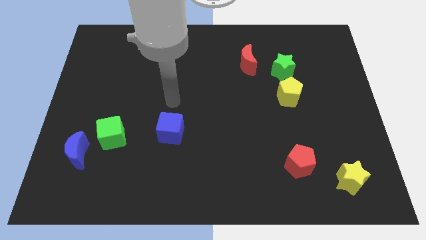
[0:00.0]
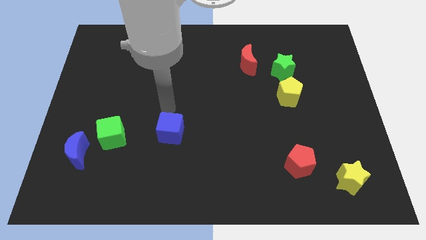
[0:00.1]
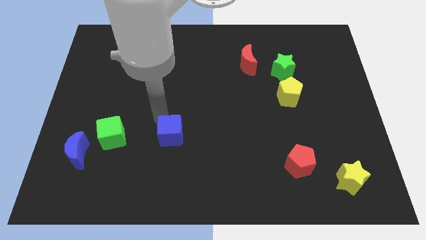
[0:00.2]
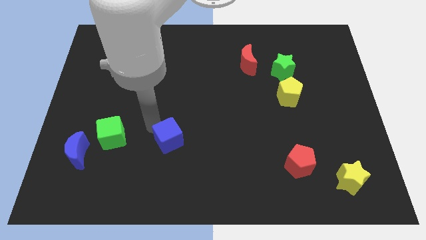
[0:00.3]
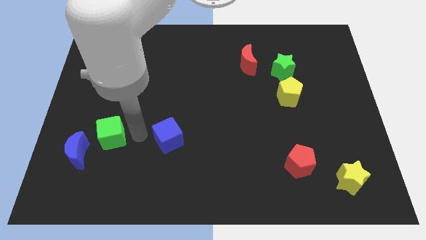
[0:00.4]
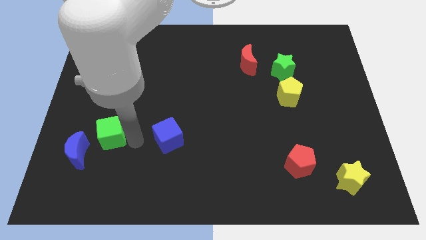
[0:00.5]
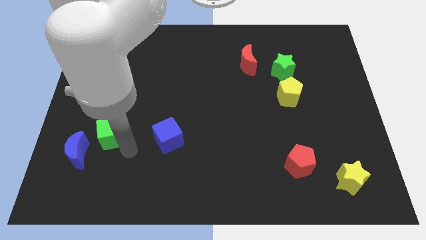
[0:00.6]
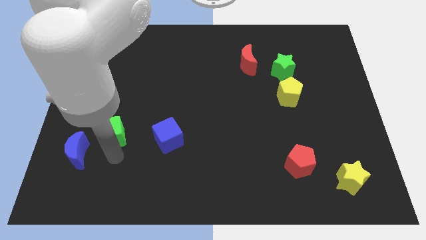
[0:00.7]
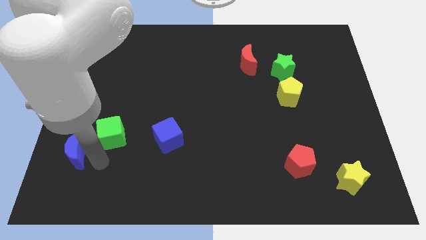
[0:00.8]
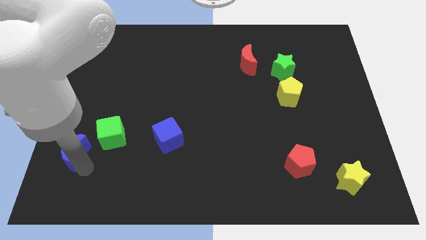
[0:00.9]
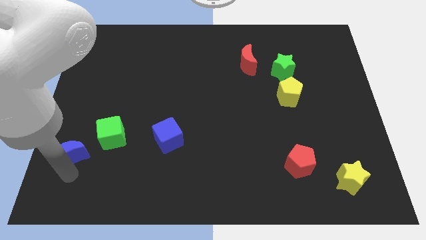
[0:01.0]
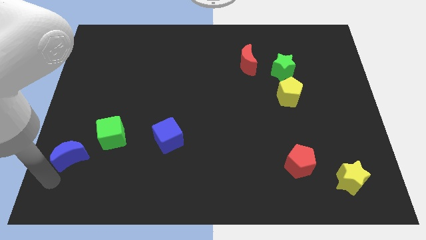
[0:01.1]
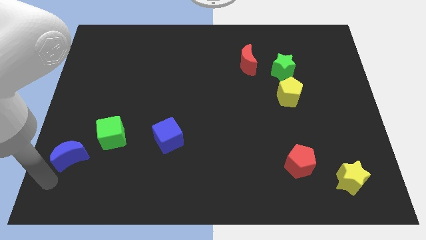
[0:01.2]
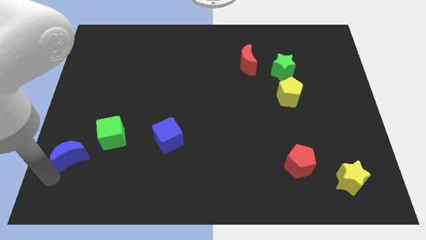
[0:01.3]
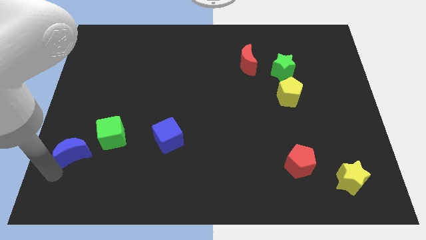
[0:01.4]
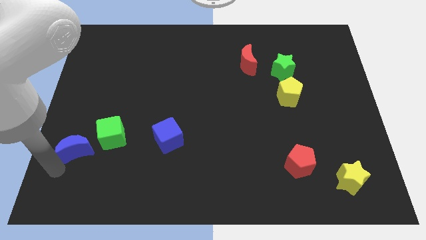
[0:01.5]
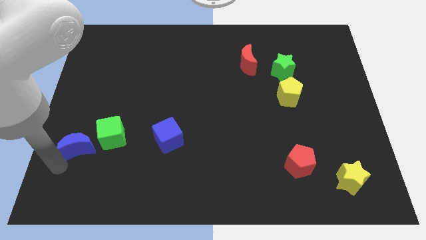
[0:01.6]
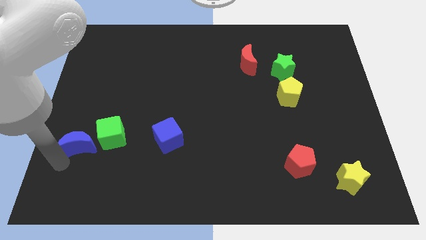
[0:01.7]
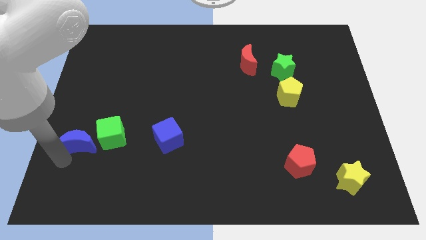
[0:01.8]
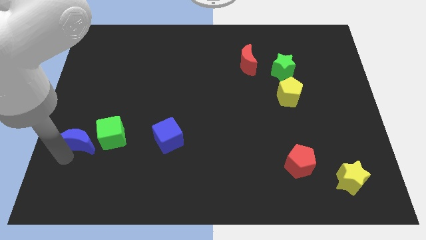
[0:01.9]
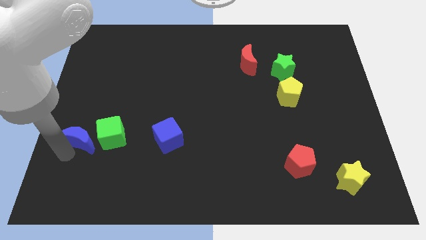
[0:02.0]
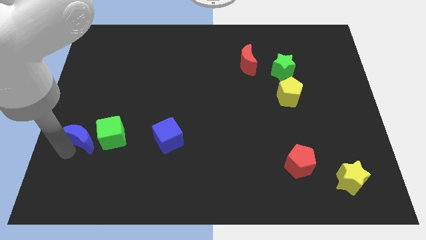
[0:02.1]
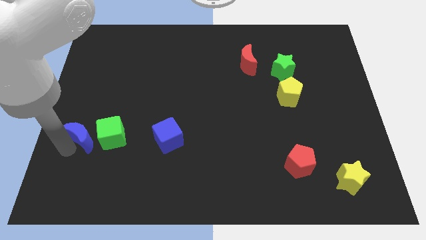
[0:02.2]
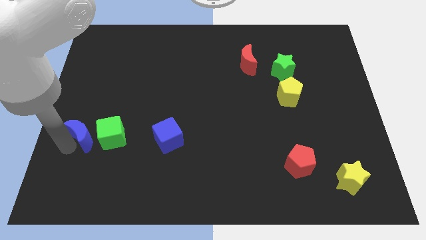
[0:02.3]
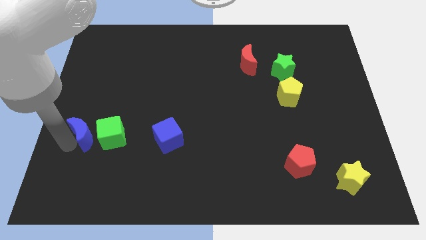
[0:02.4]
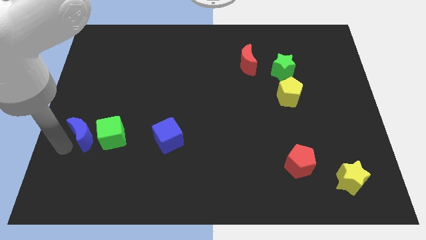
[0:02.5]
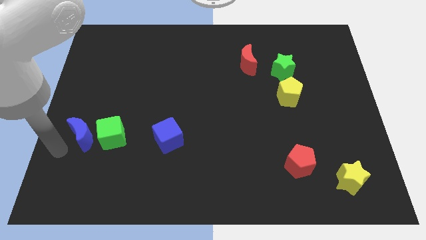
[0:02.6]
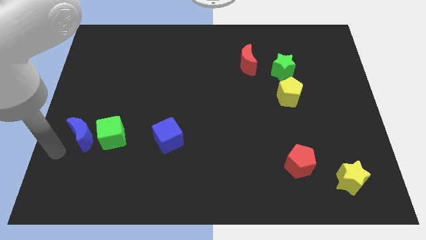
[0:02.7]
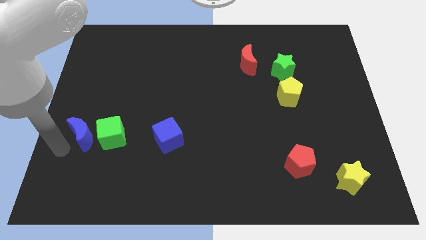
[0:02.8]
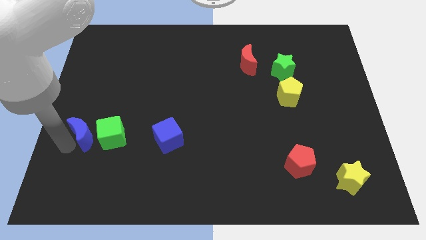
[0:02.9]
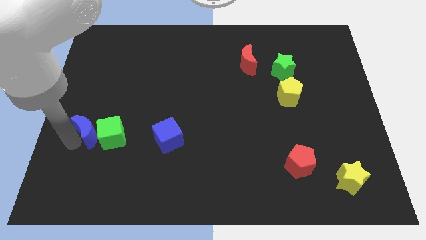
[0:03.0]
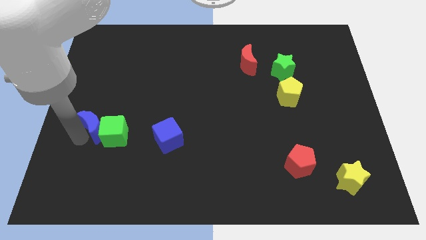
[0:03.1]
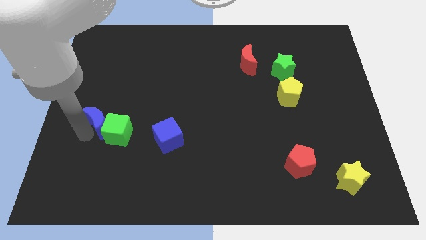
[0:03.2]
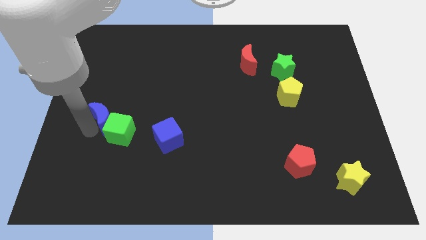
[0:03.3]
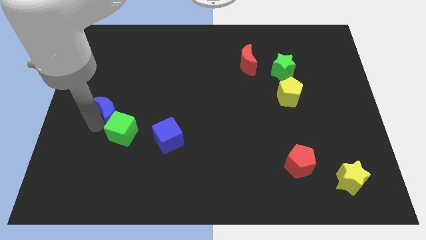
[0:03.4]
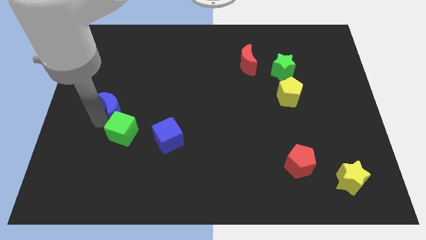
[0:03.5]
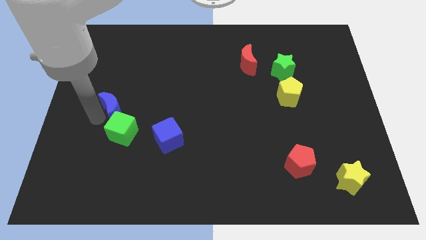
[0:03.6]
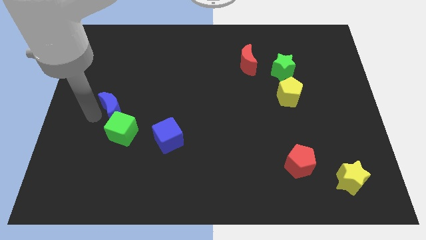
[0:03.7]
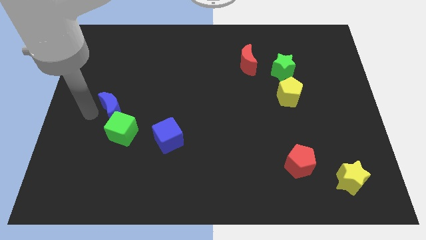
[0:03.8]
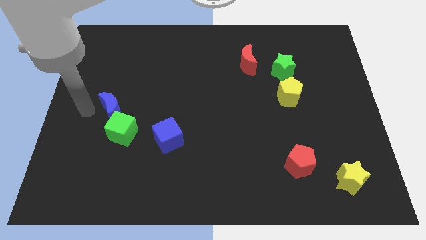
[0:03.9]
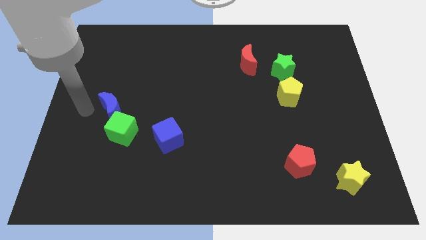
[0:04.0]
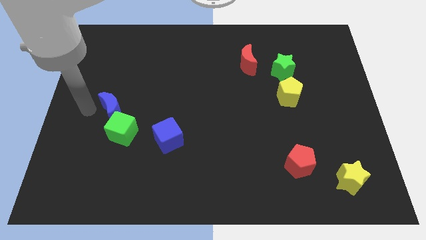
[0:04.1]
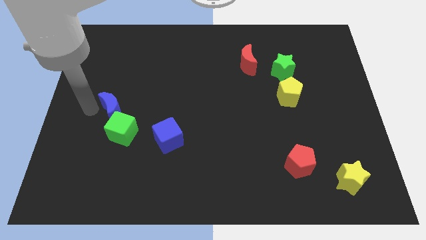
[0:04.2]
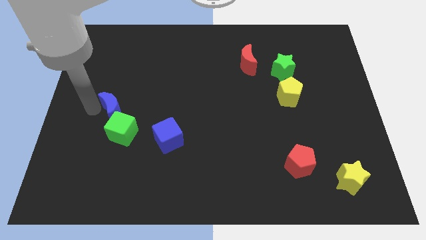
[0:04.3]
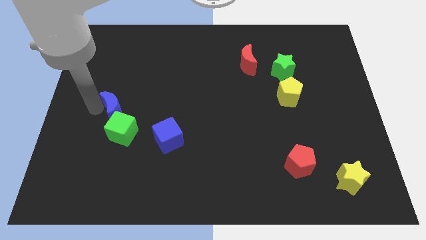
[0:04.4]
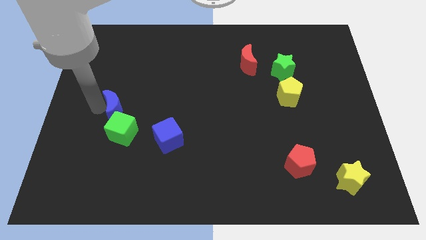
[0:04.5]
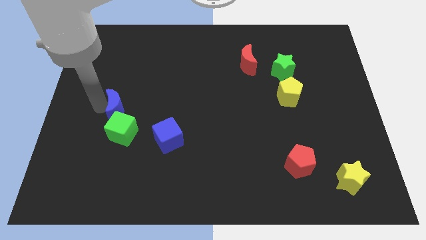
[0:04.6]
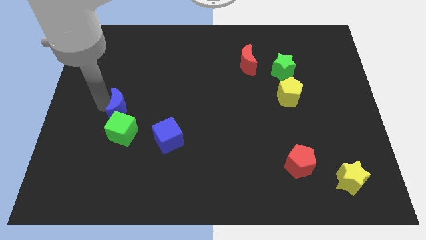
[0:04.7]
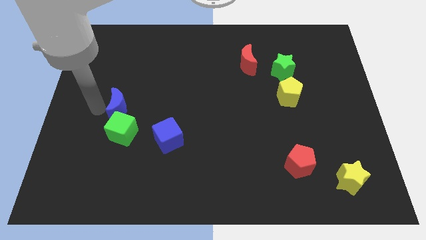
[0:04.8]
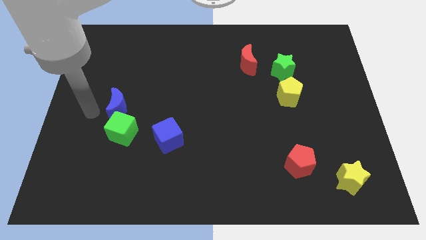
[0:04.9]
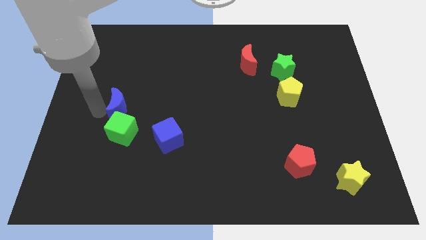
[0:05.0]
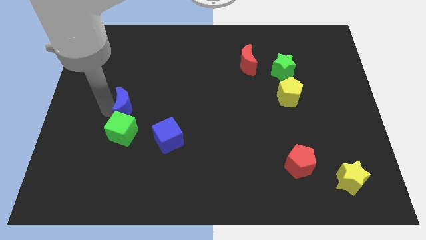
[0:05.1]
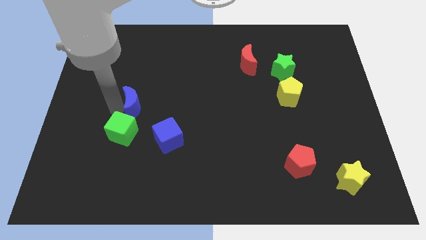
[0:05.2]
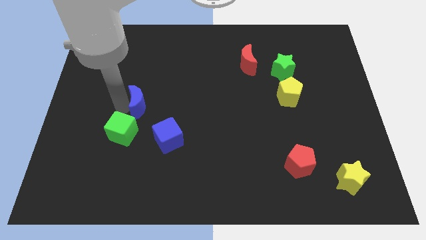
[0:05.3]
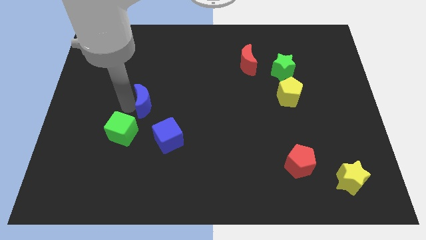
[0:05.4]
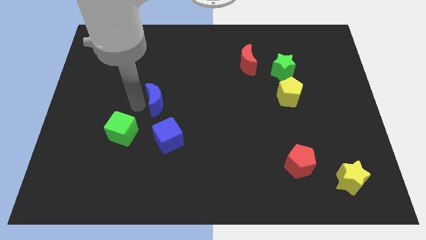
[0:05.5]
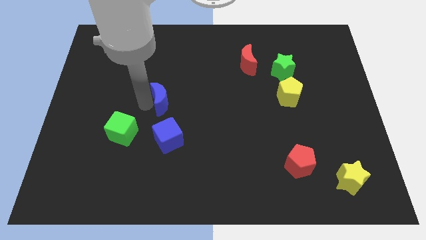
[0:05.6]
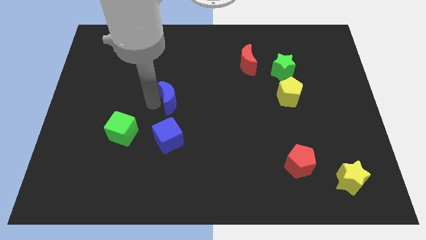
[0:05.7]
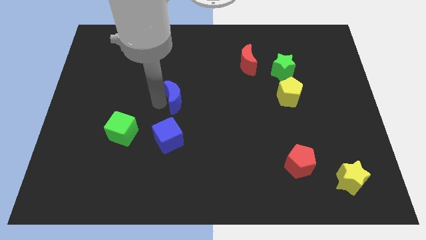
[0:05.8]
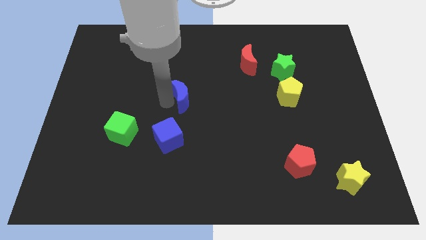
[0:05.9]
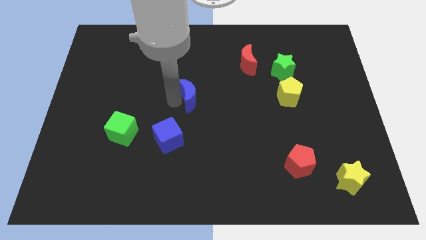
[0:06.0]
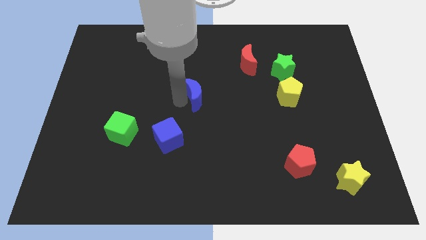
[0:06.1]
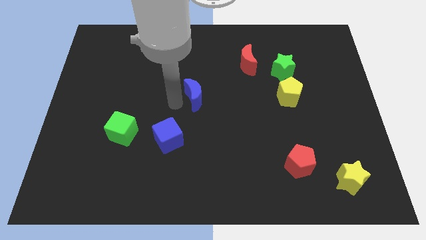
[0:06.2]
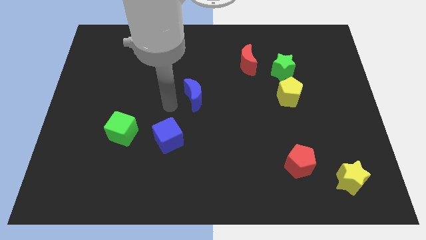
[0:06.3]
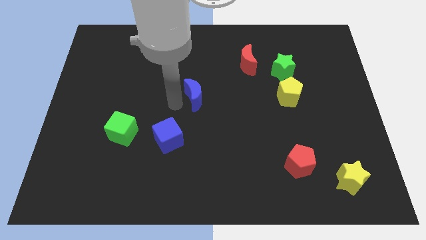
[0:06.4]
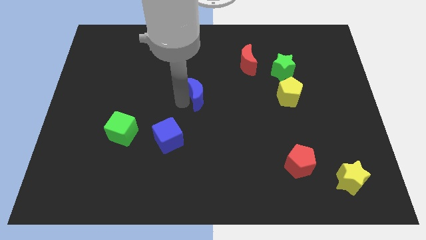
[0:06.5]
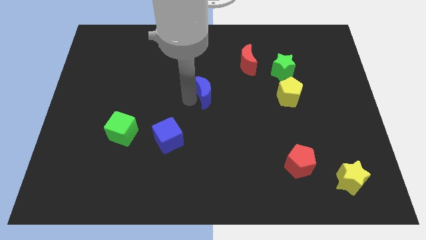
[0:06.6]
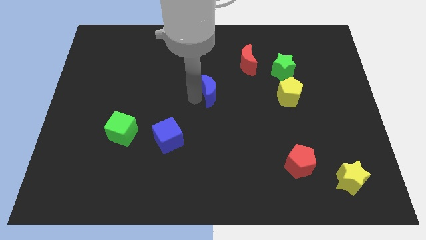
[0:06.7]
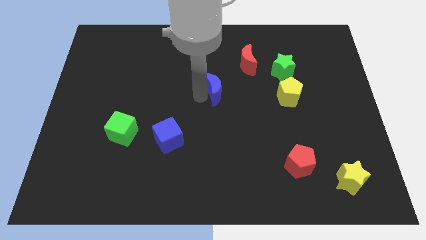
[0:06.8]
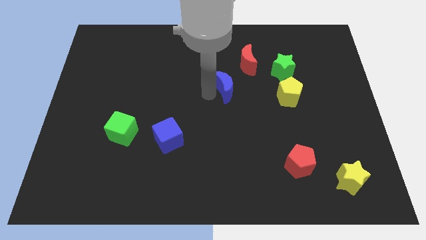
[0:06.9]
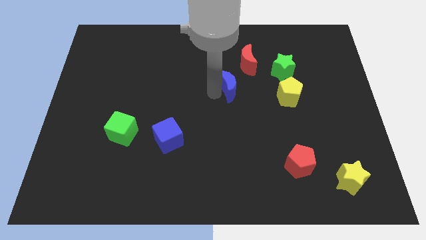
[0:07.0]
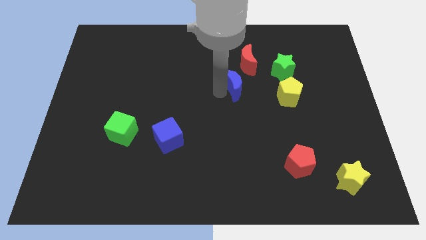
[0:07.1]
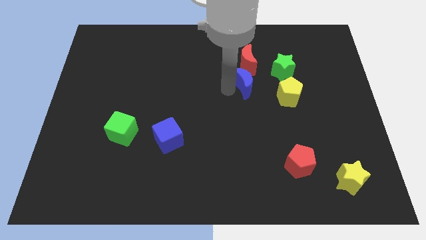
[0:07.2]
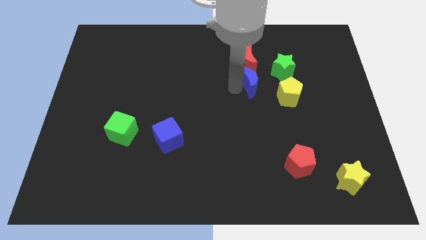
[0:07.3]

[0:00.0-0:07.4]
put the blue moon to the bottom right side of the red moon

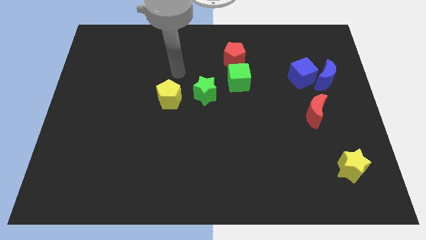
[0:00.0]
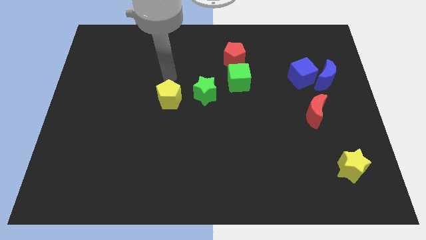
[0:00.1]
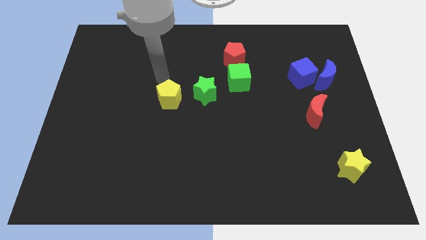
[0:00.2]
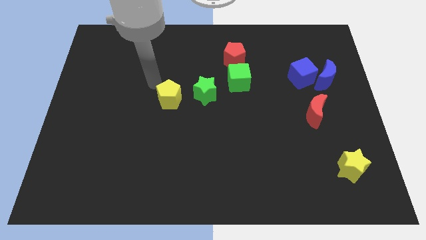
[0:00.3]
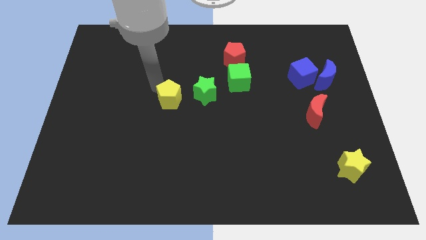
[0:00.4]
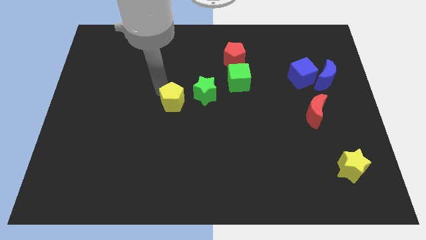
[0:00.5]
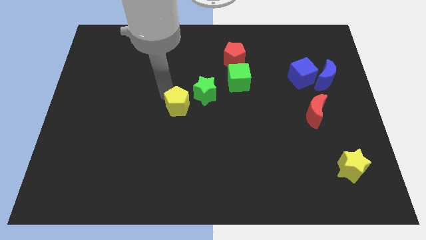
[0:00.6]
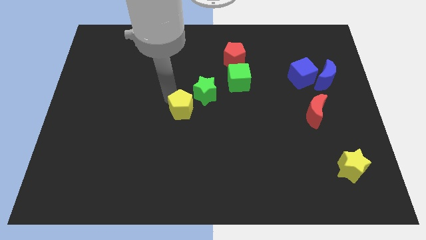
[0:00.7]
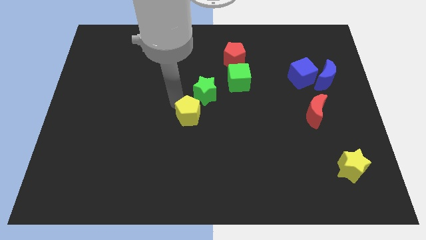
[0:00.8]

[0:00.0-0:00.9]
put the yellow pentagon to the bottom of the green star
